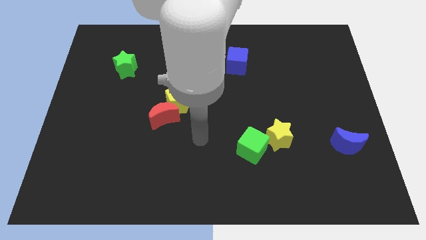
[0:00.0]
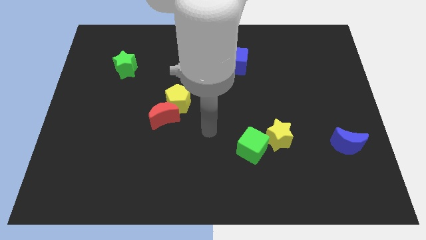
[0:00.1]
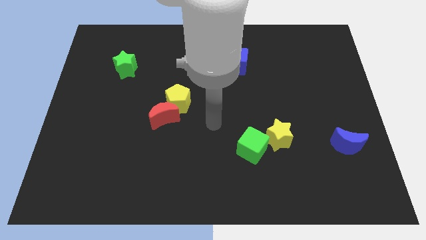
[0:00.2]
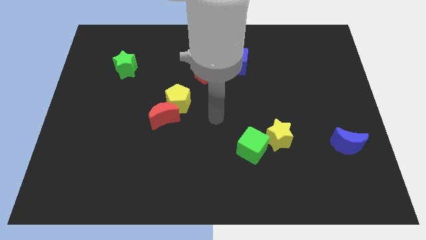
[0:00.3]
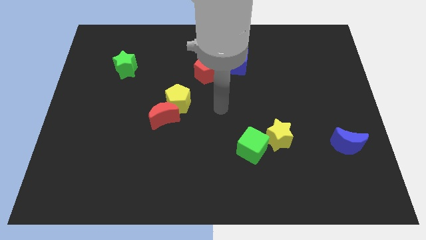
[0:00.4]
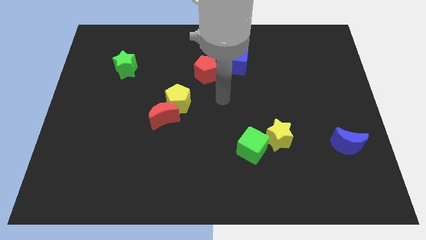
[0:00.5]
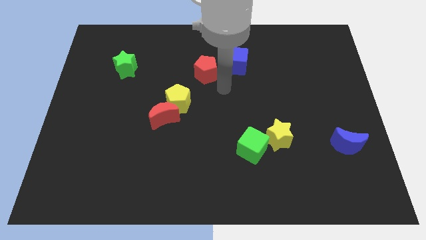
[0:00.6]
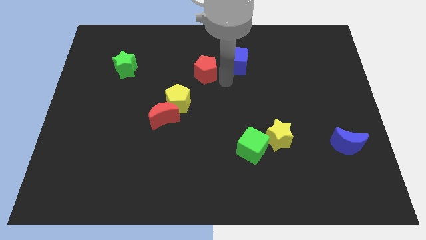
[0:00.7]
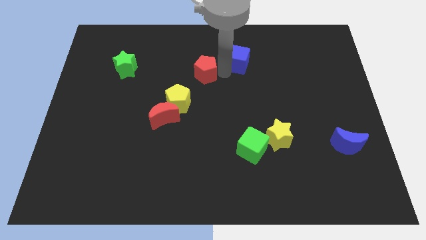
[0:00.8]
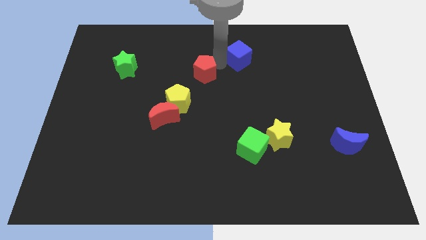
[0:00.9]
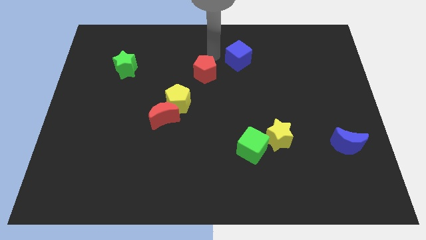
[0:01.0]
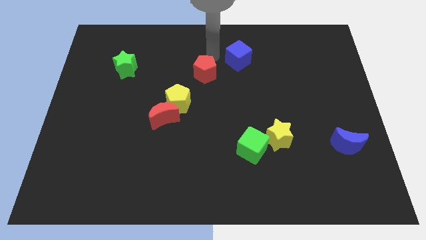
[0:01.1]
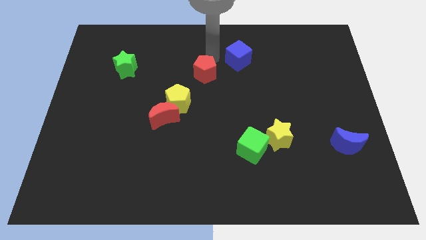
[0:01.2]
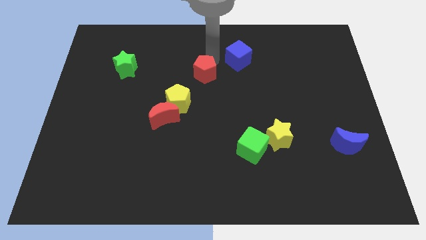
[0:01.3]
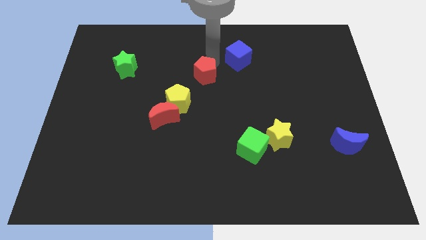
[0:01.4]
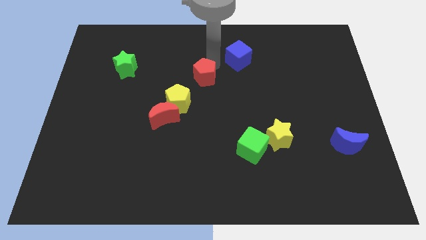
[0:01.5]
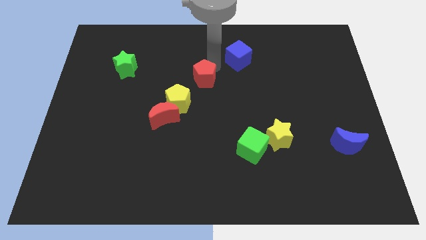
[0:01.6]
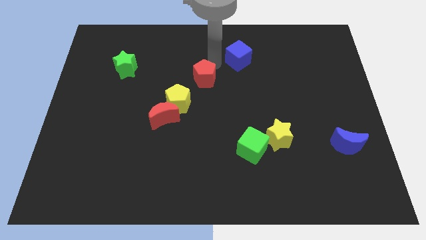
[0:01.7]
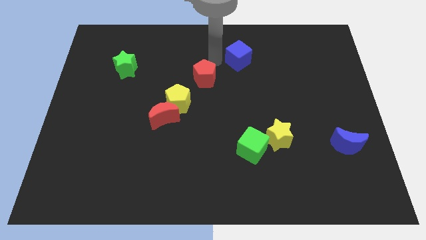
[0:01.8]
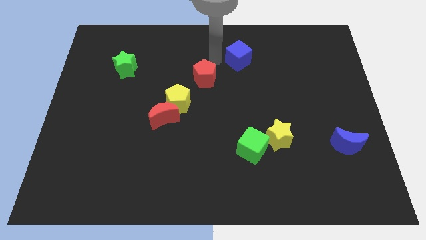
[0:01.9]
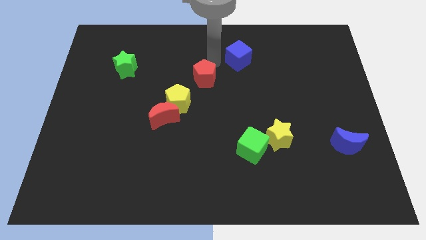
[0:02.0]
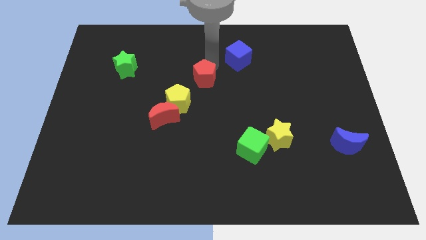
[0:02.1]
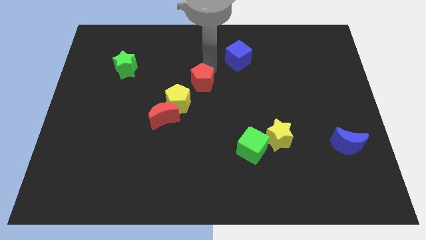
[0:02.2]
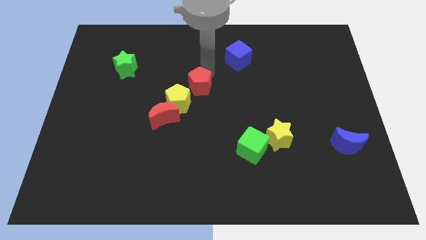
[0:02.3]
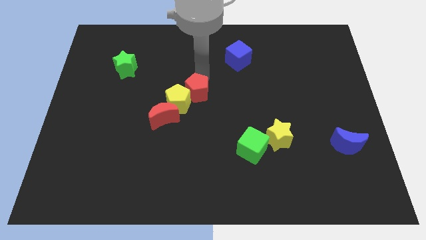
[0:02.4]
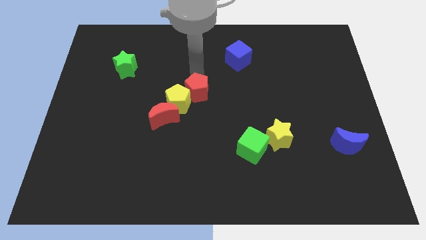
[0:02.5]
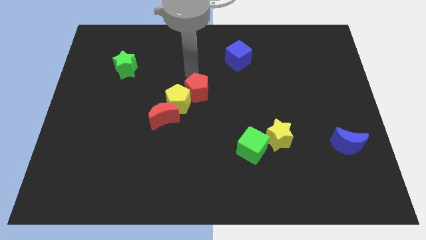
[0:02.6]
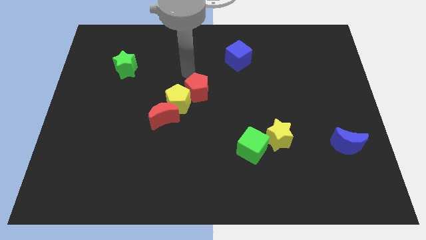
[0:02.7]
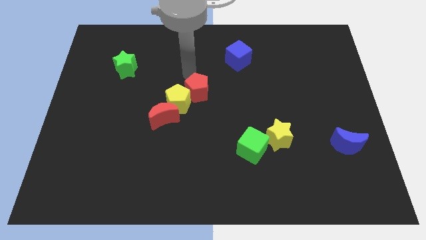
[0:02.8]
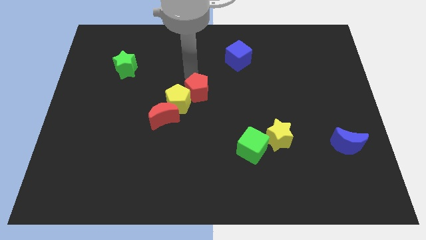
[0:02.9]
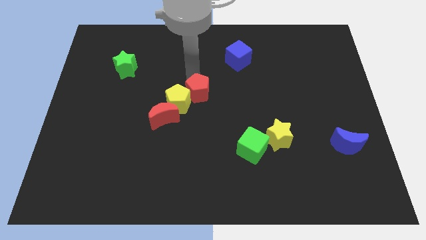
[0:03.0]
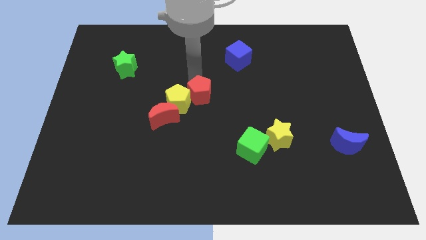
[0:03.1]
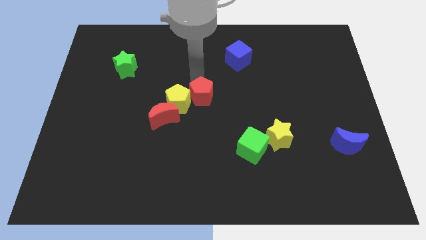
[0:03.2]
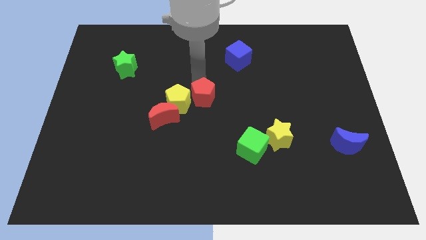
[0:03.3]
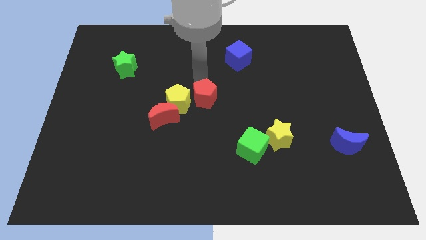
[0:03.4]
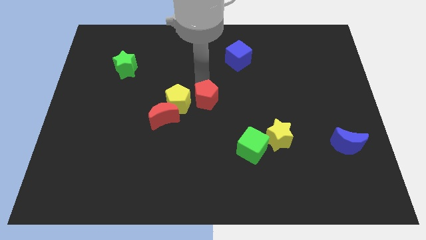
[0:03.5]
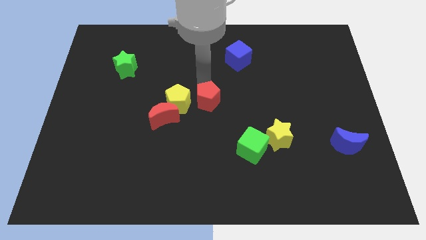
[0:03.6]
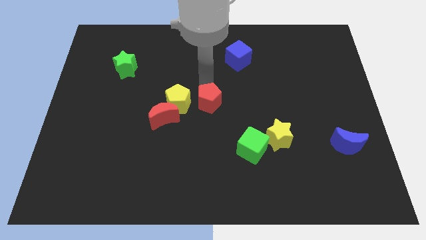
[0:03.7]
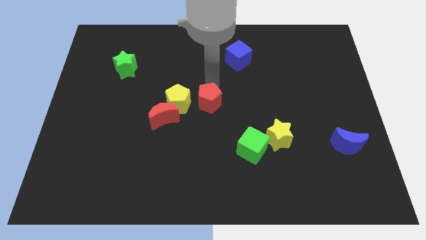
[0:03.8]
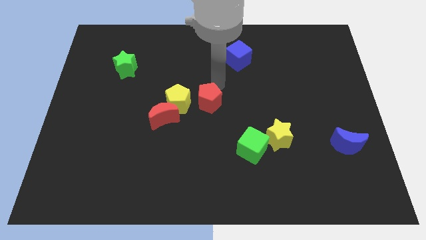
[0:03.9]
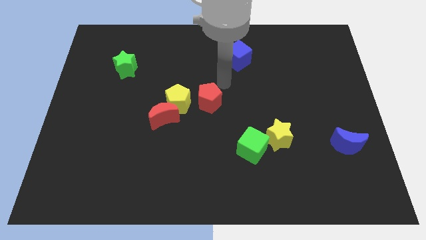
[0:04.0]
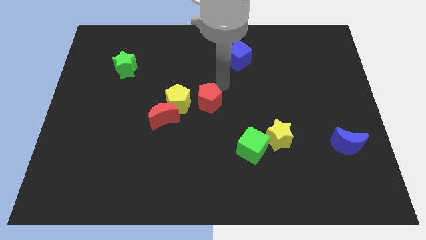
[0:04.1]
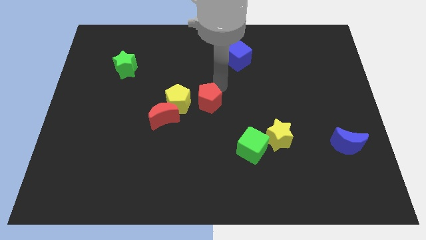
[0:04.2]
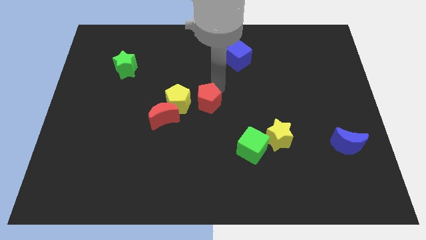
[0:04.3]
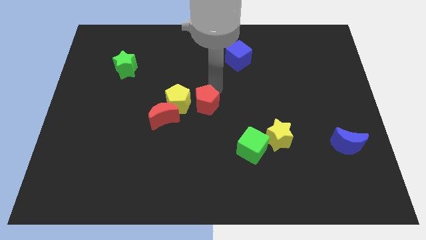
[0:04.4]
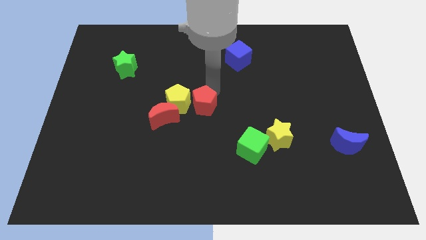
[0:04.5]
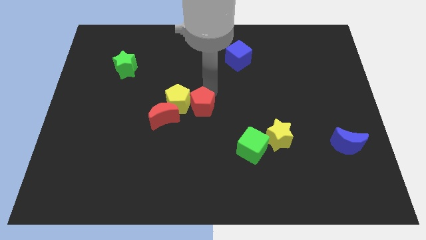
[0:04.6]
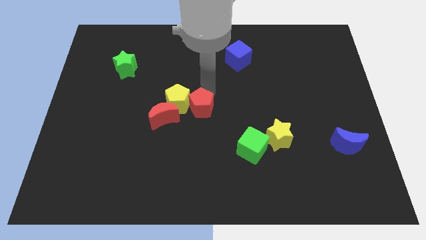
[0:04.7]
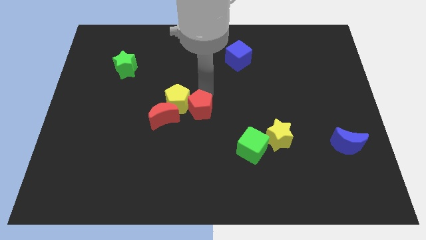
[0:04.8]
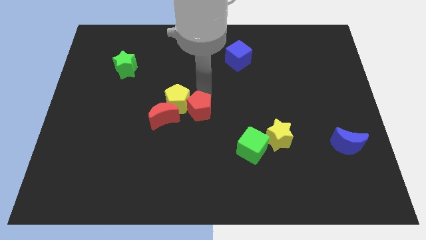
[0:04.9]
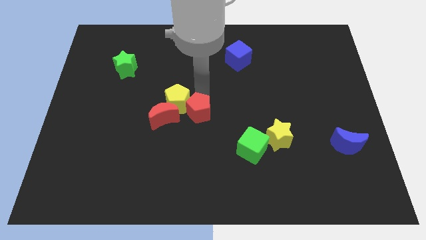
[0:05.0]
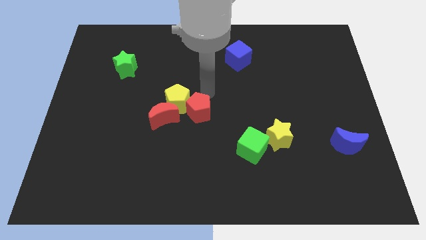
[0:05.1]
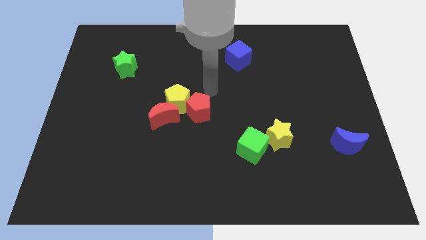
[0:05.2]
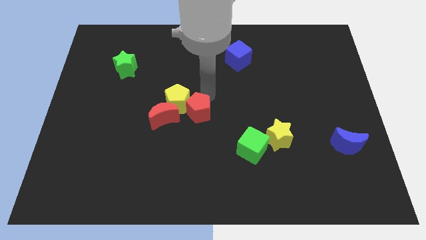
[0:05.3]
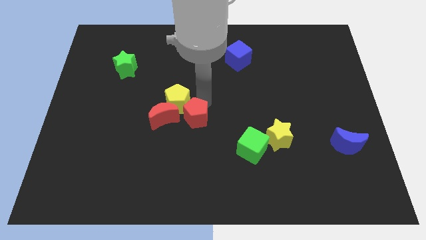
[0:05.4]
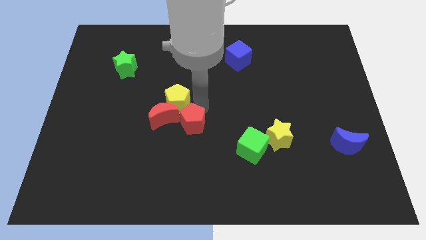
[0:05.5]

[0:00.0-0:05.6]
move the red pentagon to the bottom right side of the red moon

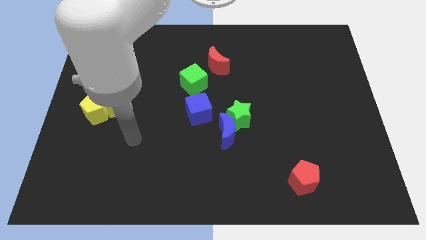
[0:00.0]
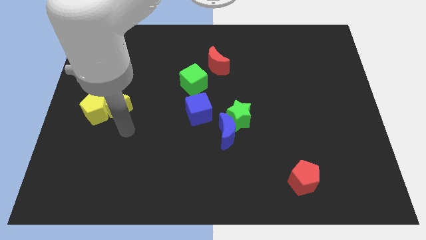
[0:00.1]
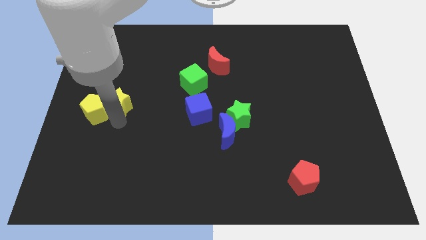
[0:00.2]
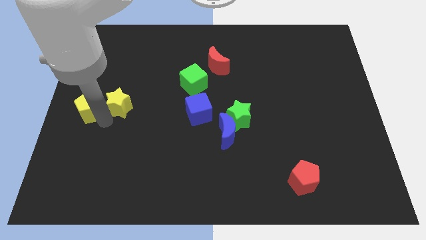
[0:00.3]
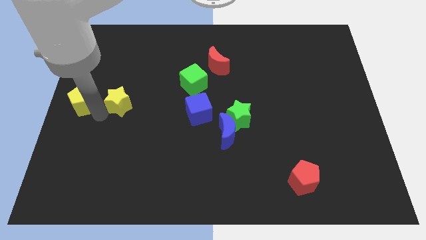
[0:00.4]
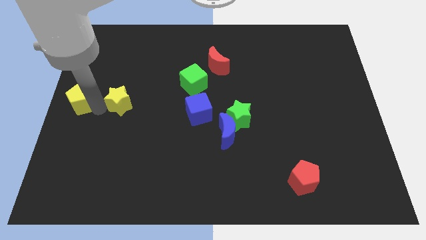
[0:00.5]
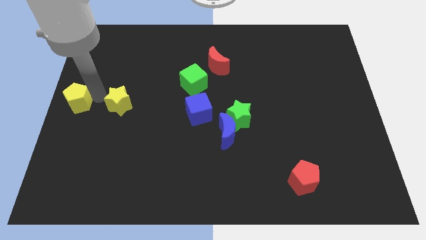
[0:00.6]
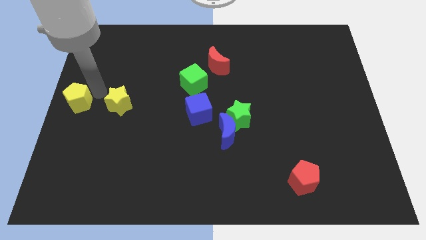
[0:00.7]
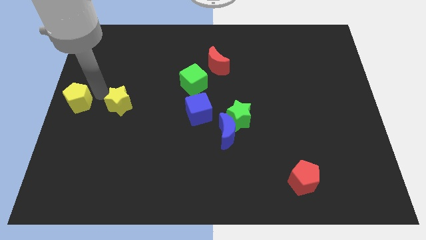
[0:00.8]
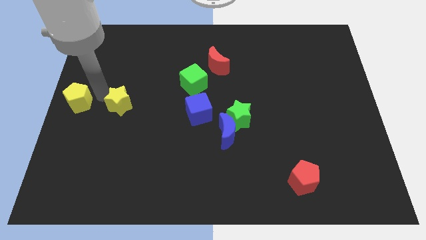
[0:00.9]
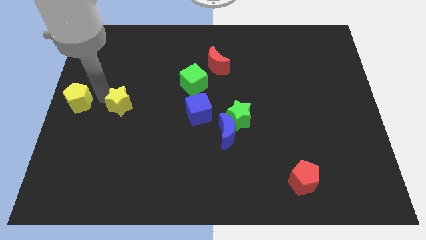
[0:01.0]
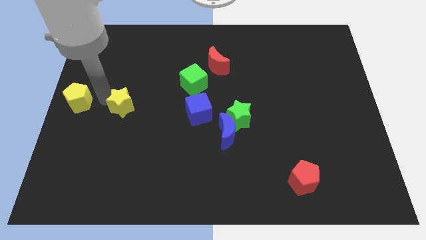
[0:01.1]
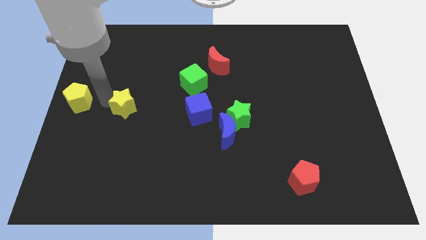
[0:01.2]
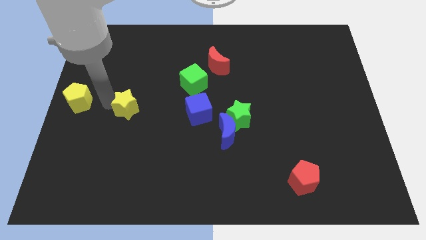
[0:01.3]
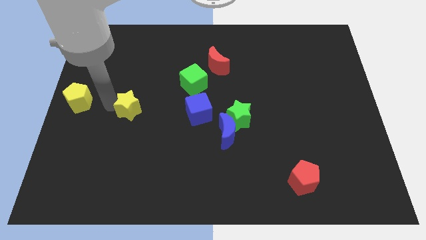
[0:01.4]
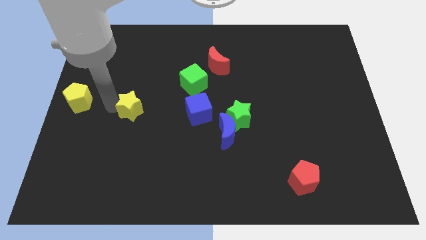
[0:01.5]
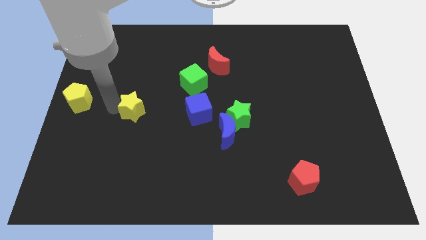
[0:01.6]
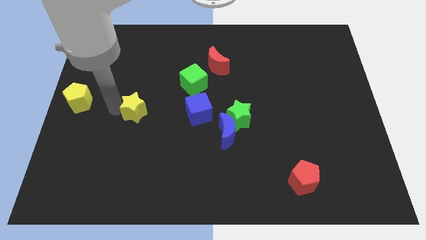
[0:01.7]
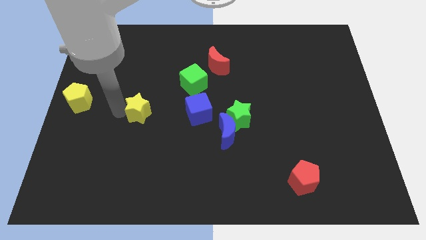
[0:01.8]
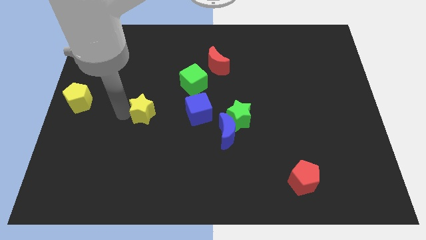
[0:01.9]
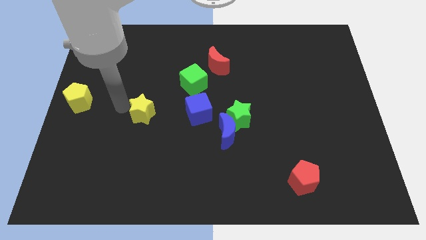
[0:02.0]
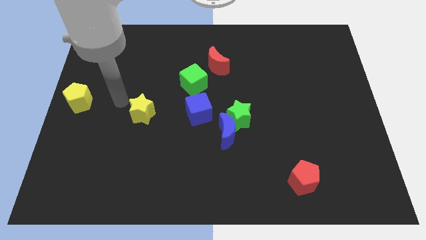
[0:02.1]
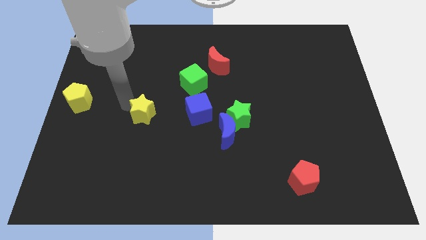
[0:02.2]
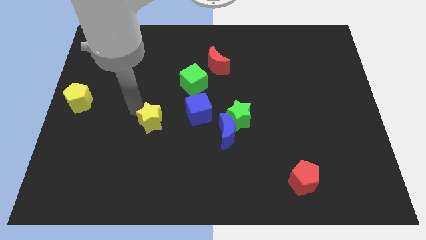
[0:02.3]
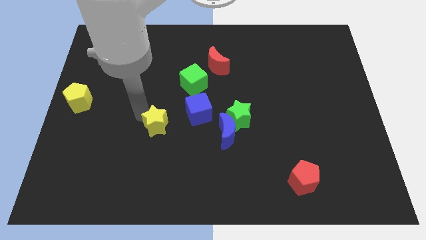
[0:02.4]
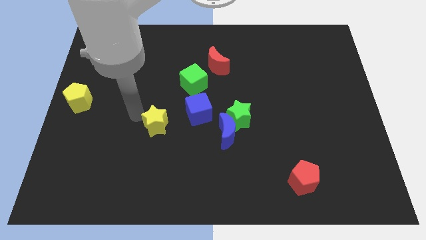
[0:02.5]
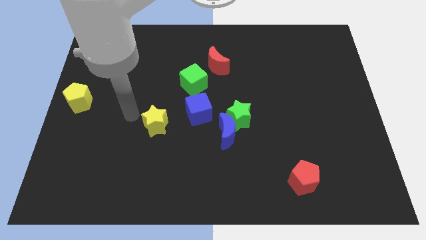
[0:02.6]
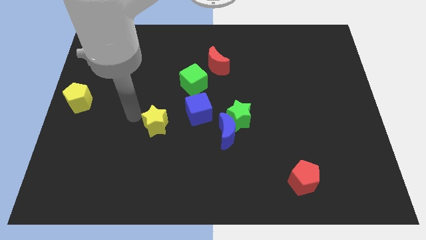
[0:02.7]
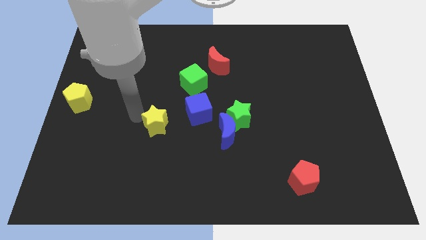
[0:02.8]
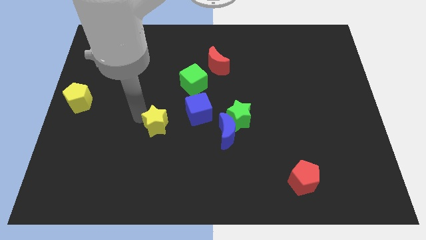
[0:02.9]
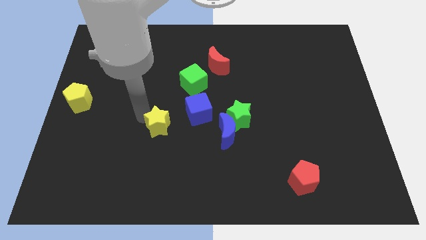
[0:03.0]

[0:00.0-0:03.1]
push the yellow star left of the blue moon
